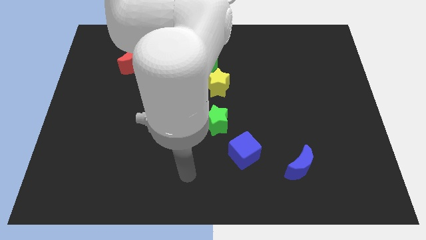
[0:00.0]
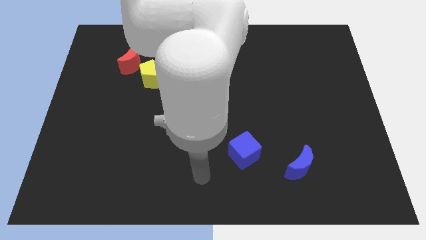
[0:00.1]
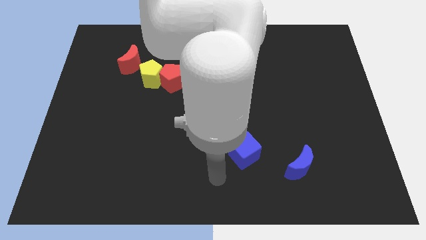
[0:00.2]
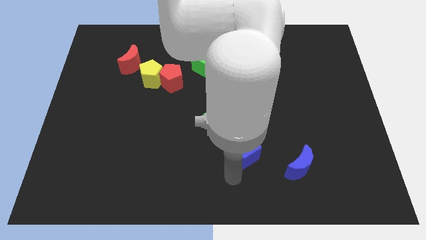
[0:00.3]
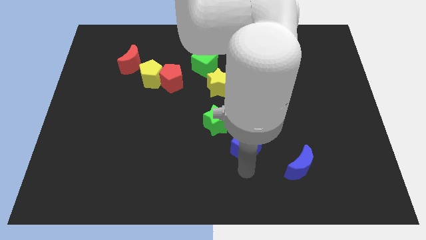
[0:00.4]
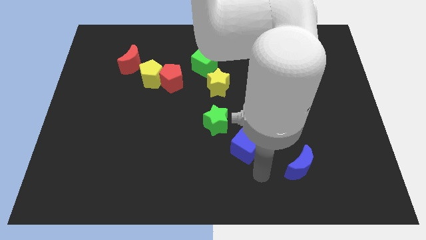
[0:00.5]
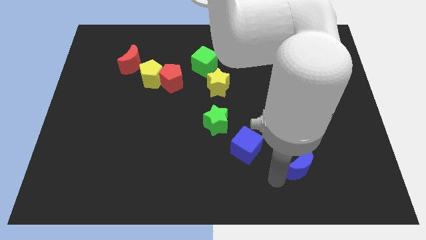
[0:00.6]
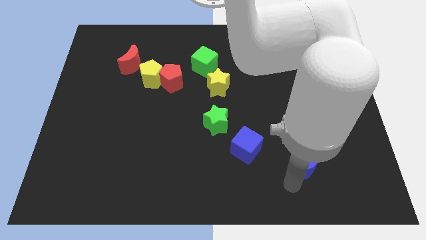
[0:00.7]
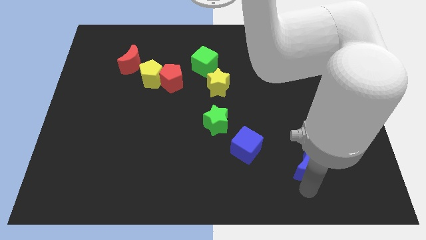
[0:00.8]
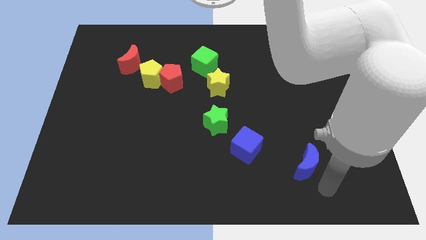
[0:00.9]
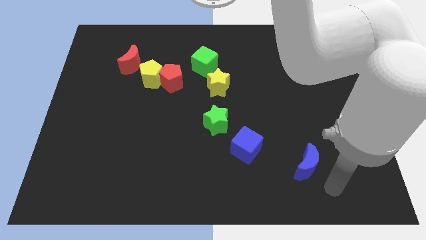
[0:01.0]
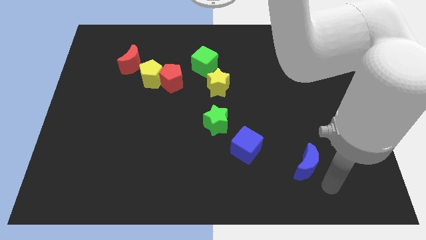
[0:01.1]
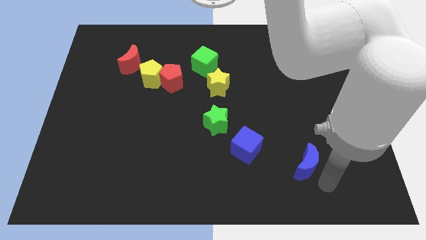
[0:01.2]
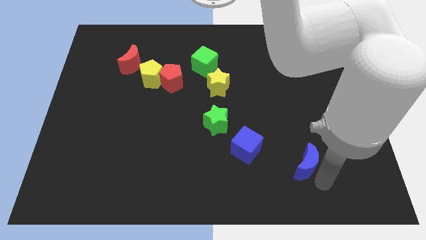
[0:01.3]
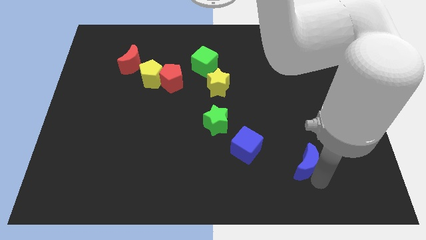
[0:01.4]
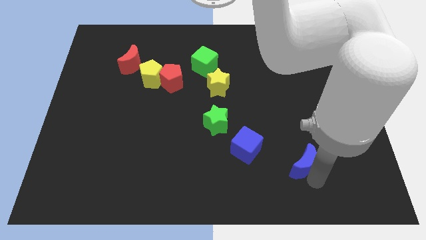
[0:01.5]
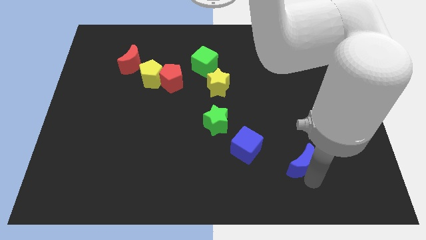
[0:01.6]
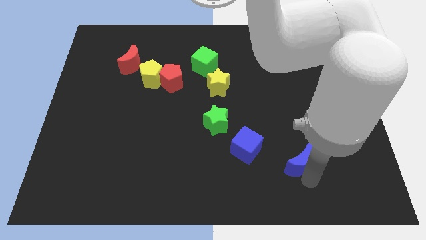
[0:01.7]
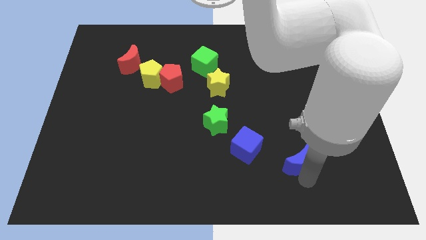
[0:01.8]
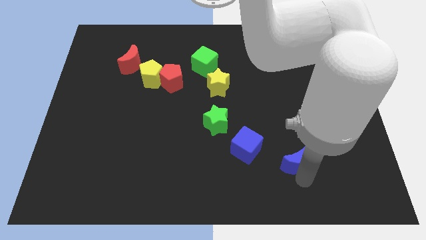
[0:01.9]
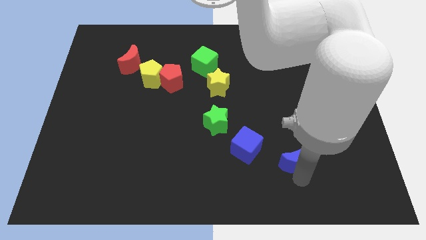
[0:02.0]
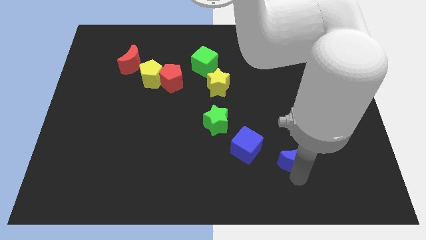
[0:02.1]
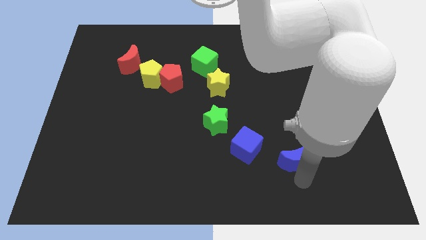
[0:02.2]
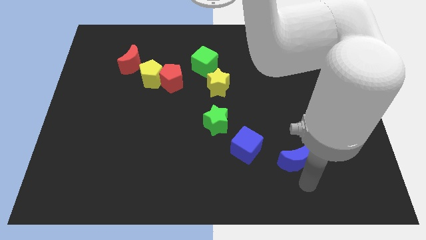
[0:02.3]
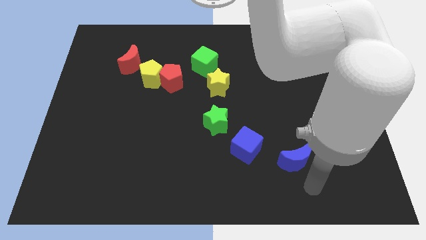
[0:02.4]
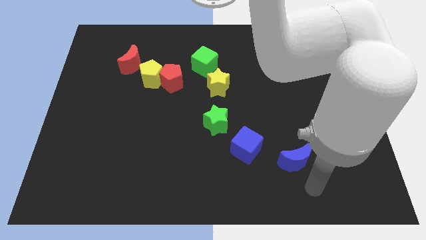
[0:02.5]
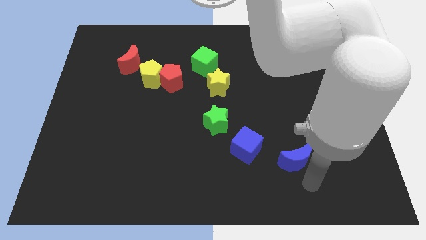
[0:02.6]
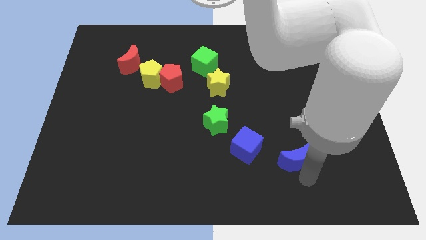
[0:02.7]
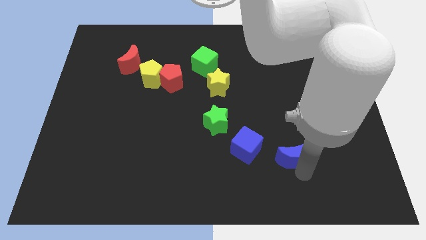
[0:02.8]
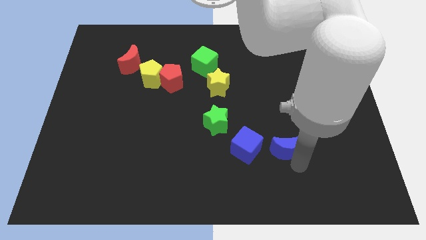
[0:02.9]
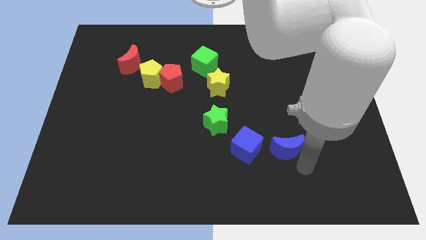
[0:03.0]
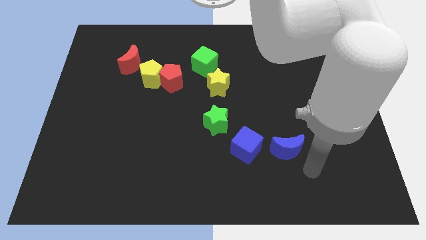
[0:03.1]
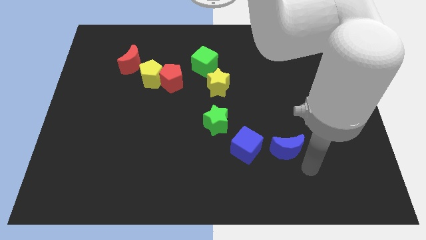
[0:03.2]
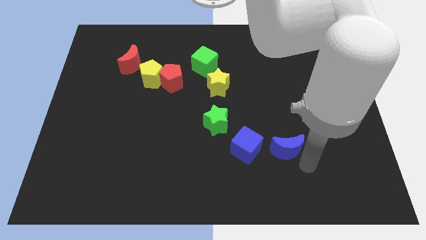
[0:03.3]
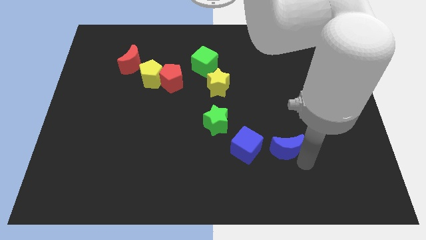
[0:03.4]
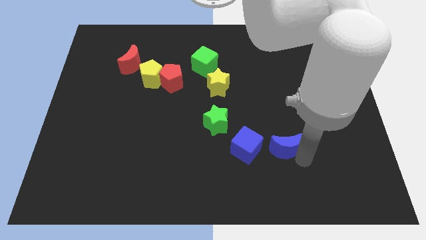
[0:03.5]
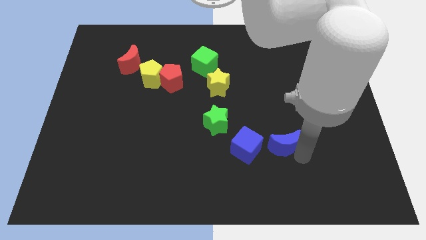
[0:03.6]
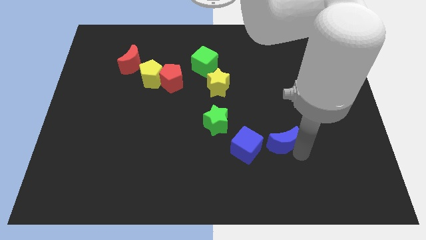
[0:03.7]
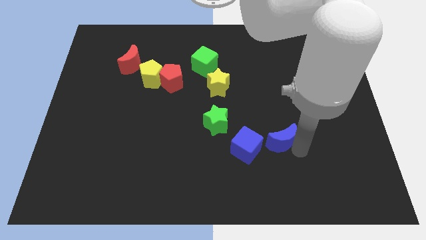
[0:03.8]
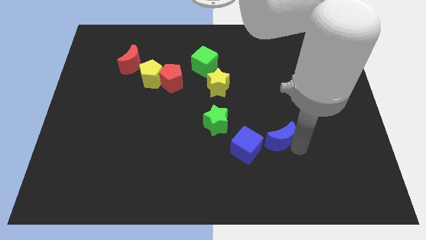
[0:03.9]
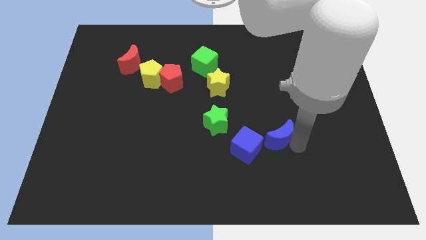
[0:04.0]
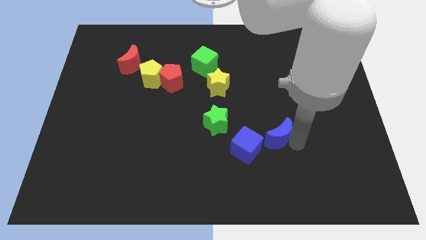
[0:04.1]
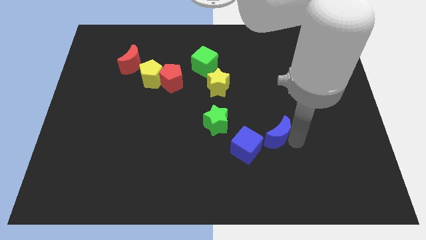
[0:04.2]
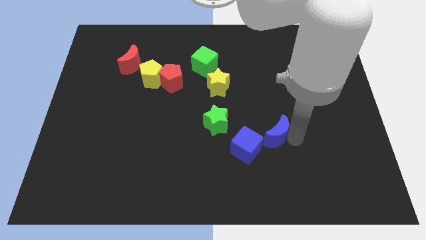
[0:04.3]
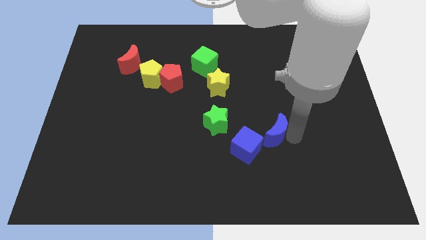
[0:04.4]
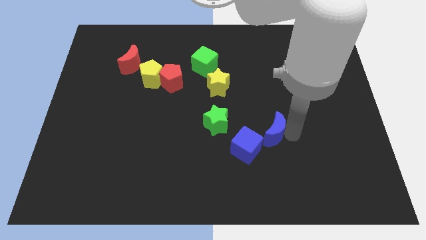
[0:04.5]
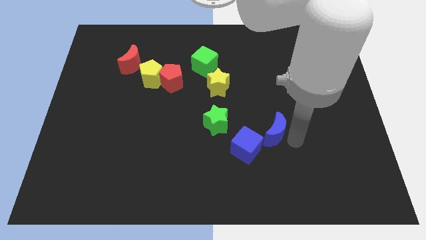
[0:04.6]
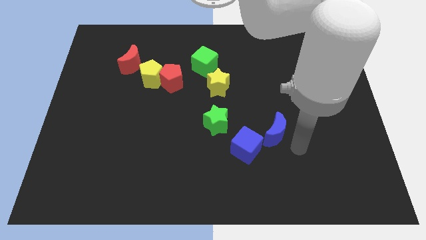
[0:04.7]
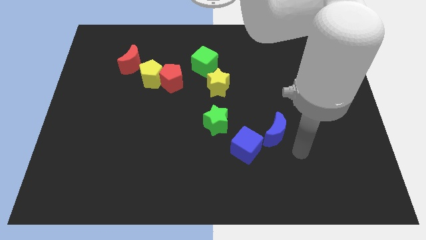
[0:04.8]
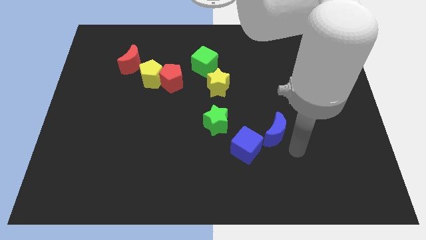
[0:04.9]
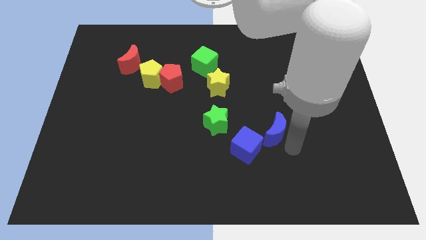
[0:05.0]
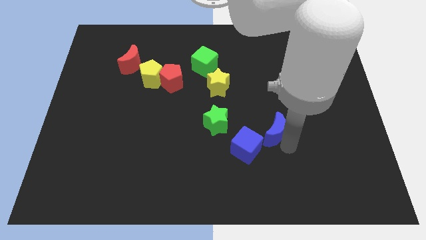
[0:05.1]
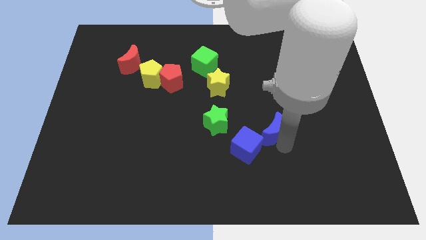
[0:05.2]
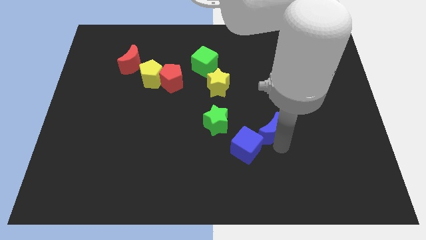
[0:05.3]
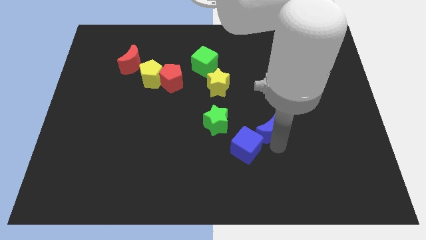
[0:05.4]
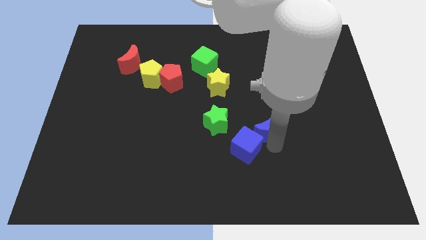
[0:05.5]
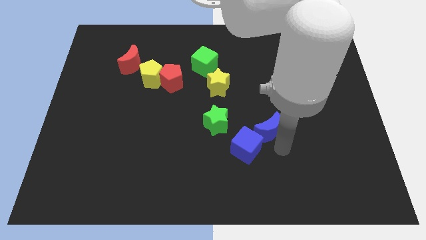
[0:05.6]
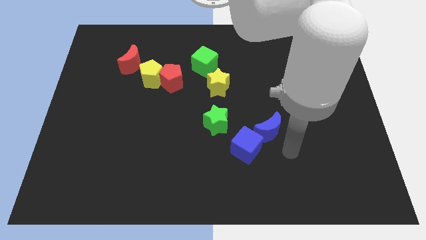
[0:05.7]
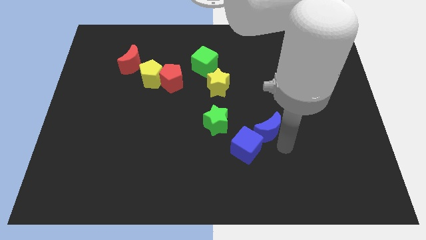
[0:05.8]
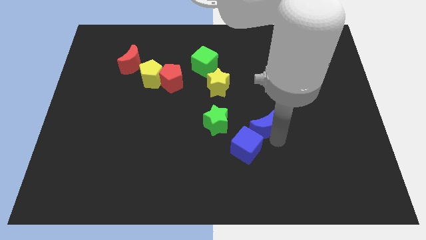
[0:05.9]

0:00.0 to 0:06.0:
slide the blue moon to the top of the blue cube

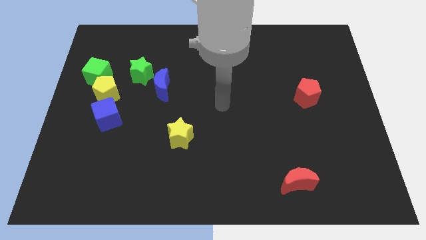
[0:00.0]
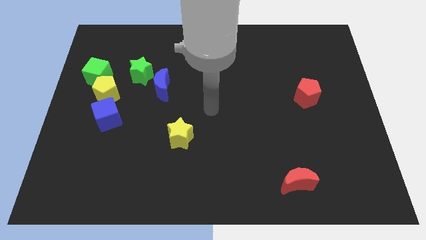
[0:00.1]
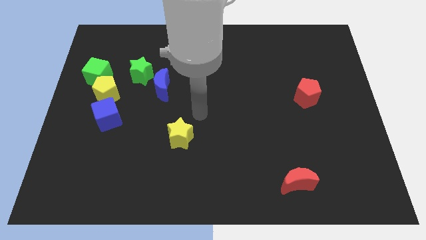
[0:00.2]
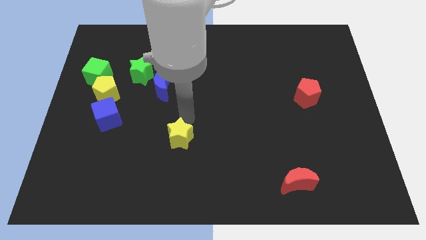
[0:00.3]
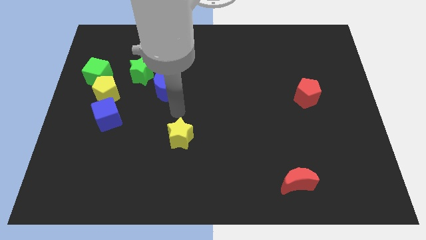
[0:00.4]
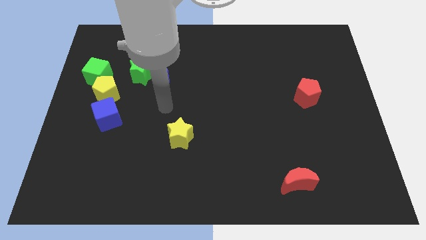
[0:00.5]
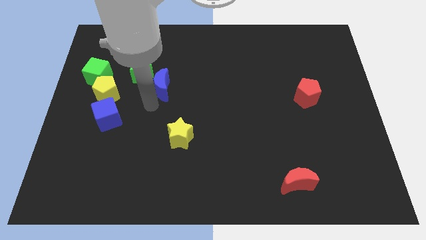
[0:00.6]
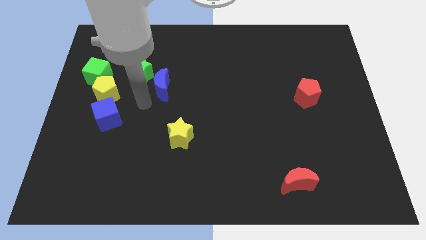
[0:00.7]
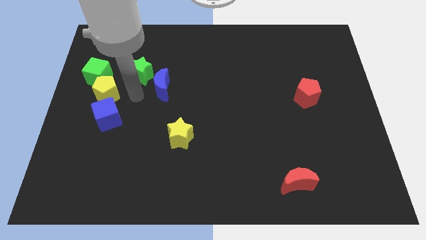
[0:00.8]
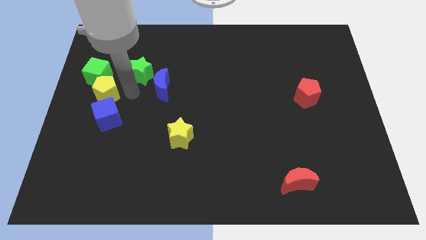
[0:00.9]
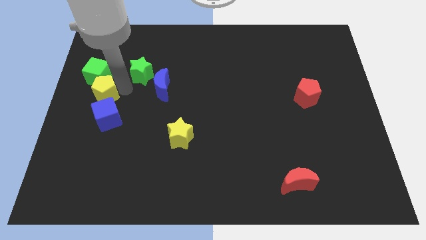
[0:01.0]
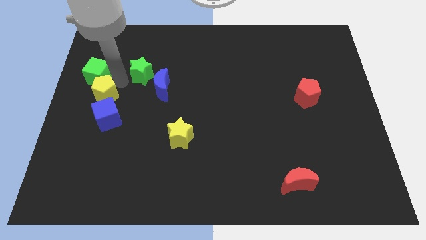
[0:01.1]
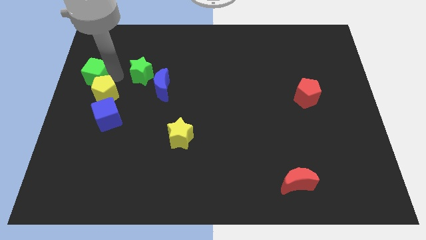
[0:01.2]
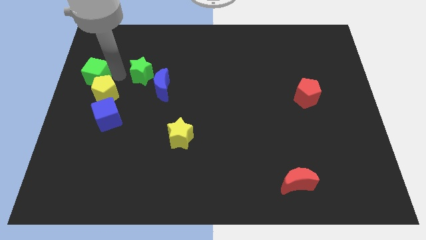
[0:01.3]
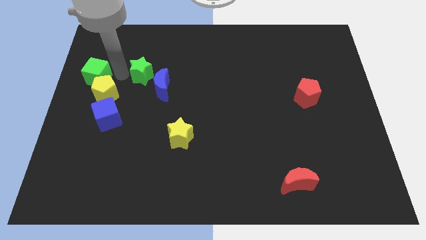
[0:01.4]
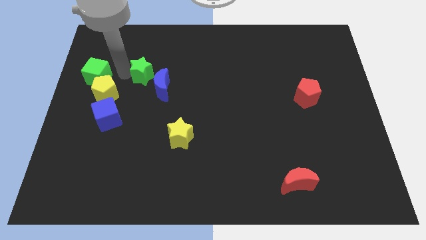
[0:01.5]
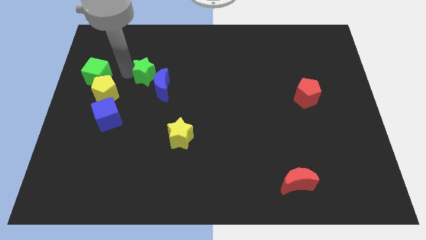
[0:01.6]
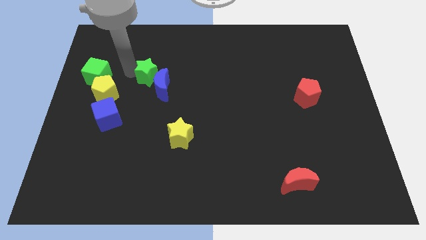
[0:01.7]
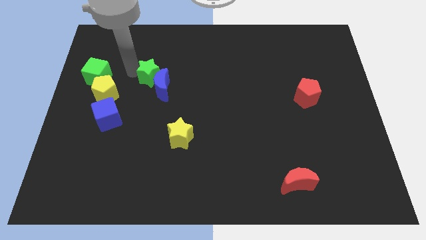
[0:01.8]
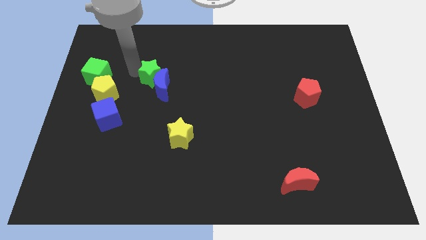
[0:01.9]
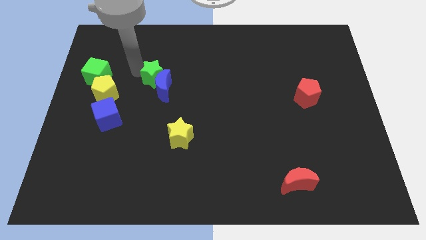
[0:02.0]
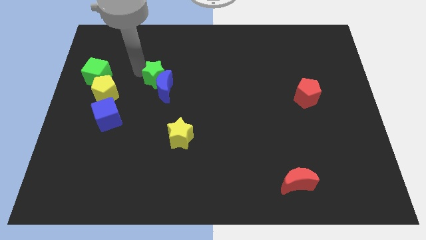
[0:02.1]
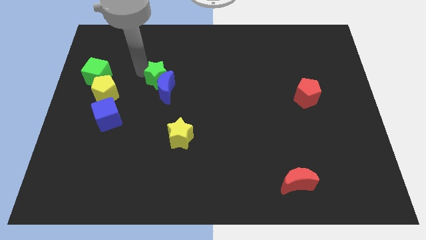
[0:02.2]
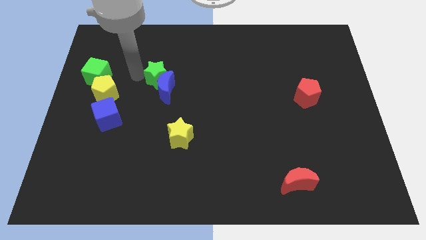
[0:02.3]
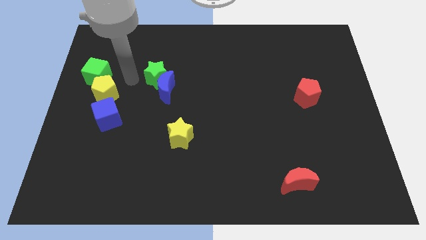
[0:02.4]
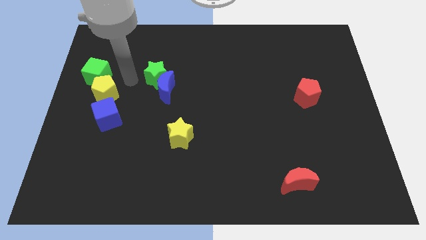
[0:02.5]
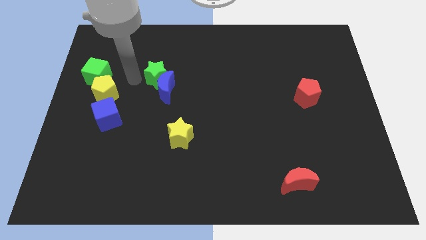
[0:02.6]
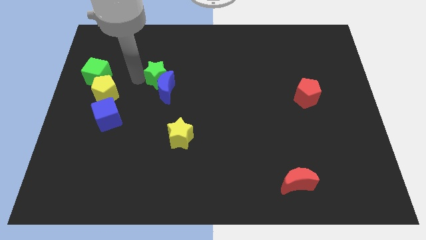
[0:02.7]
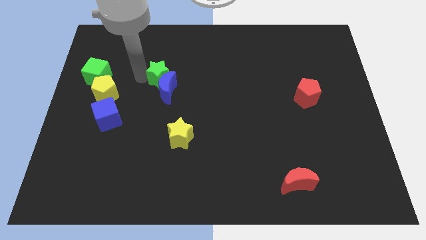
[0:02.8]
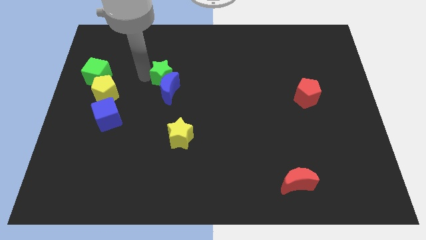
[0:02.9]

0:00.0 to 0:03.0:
move the green star to the top right of the blue moon
